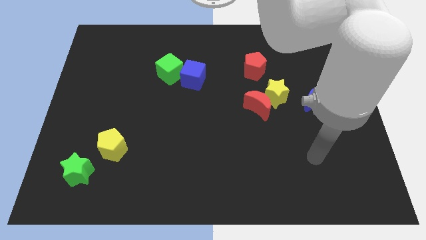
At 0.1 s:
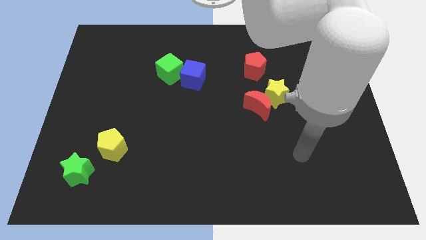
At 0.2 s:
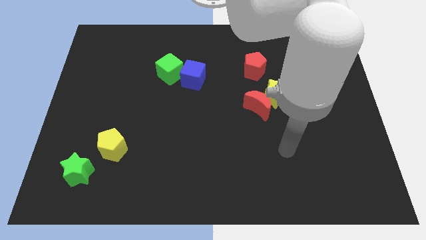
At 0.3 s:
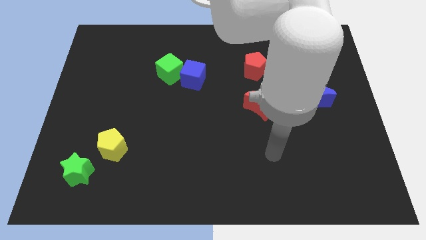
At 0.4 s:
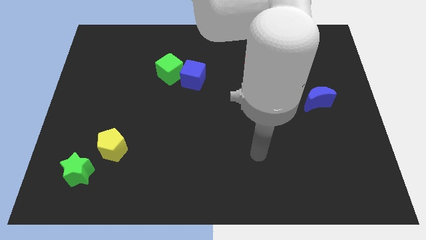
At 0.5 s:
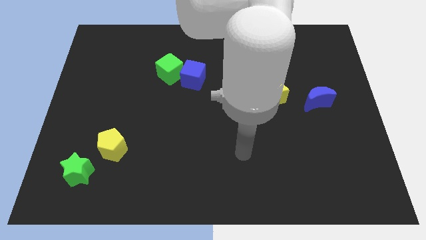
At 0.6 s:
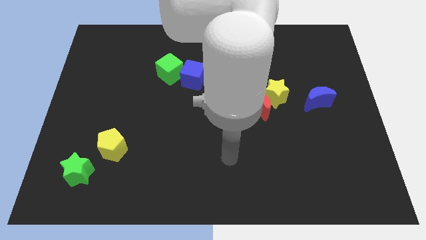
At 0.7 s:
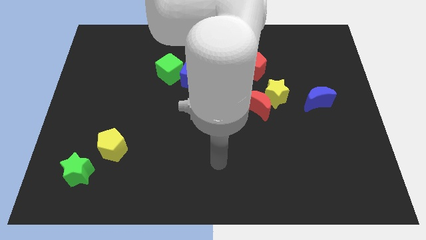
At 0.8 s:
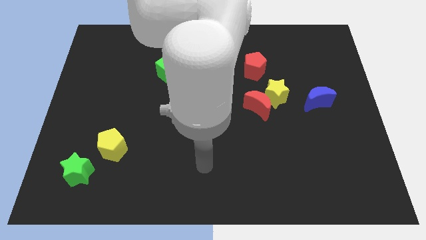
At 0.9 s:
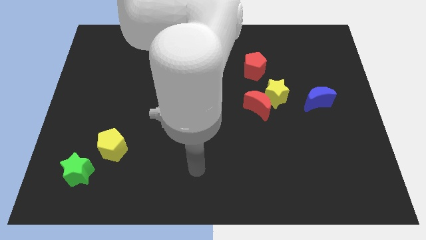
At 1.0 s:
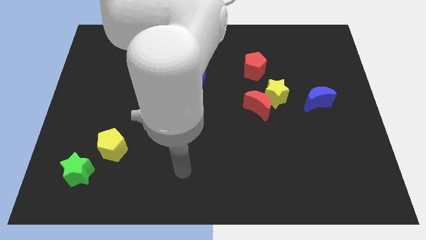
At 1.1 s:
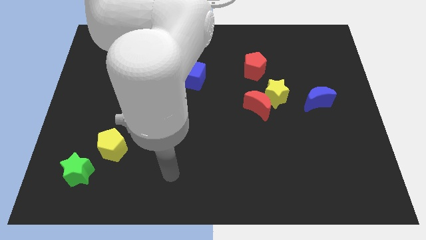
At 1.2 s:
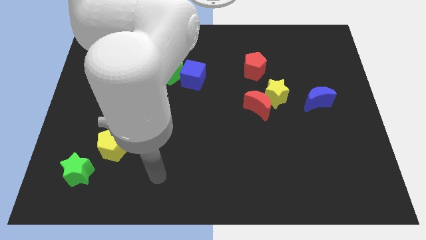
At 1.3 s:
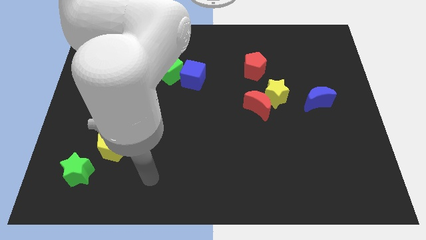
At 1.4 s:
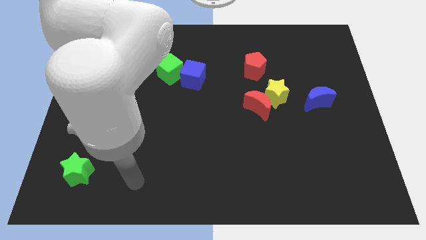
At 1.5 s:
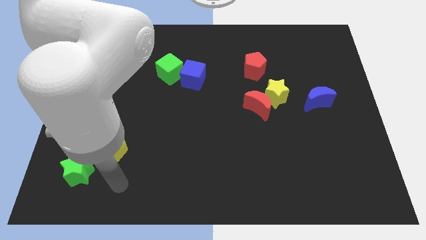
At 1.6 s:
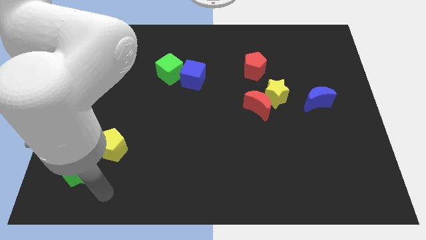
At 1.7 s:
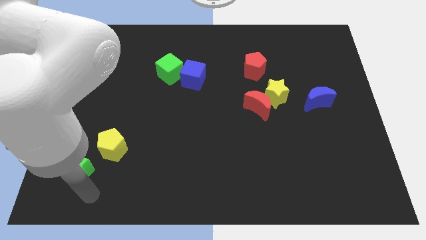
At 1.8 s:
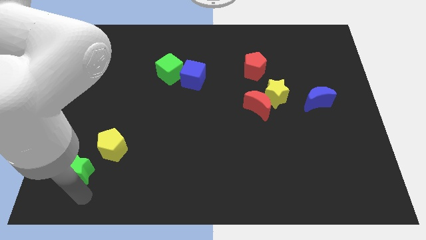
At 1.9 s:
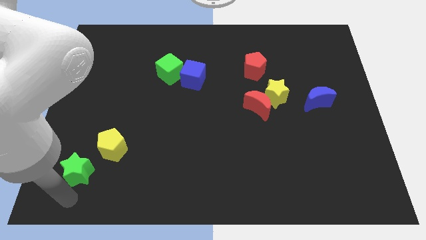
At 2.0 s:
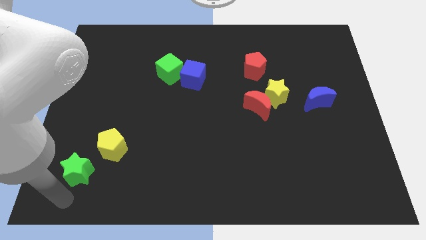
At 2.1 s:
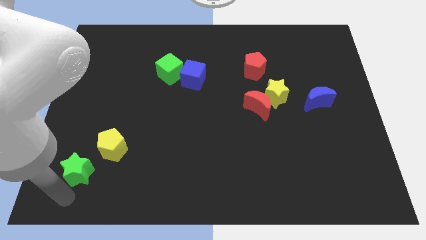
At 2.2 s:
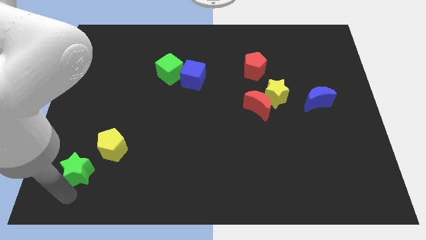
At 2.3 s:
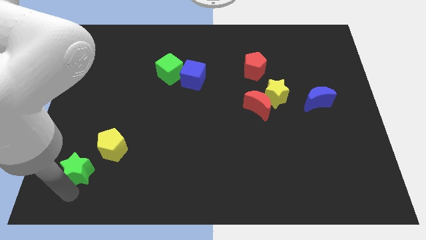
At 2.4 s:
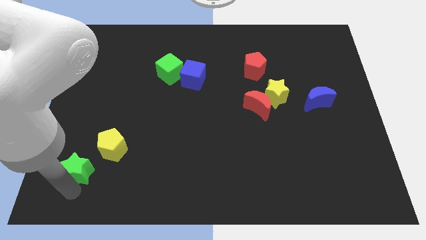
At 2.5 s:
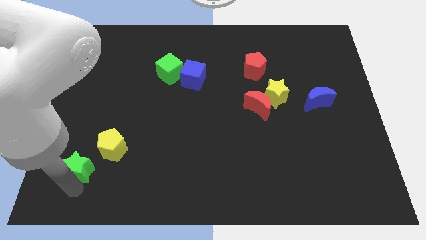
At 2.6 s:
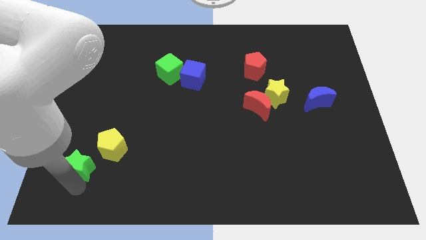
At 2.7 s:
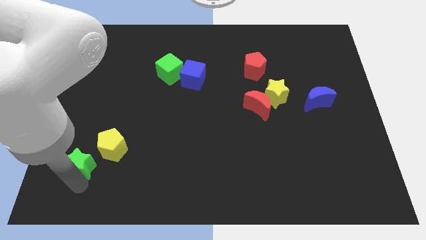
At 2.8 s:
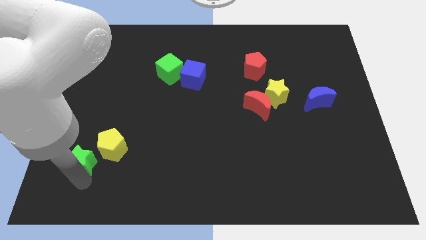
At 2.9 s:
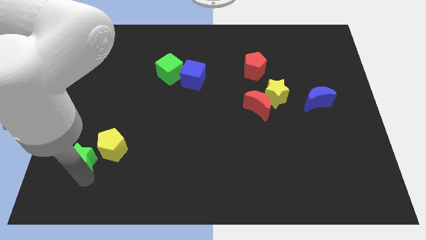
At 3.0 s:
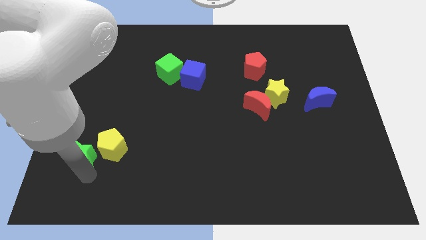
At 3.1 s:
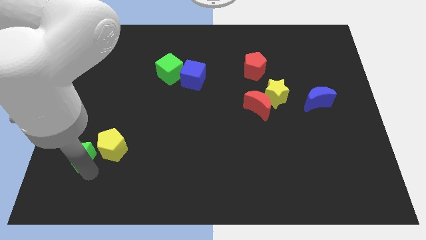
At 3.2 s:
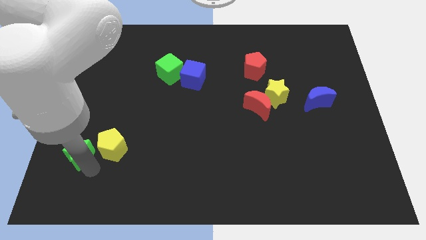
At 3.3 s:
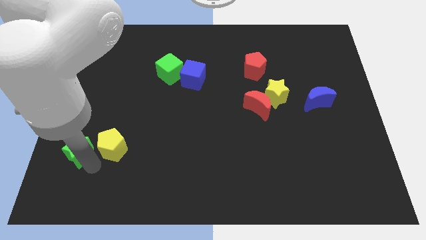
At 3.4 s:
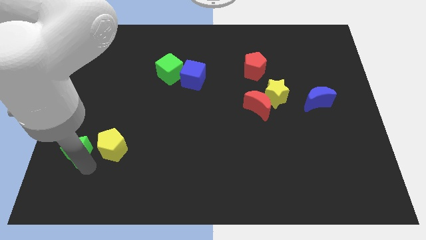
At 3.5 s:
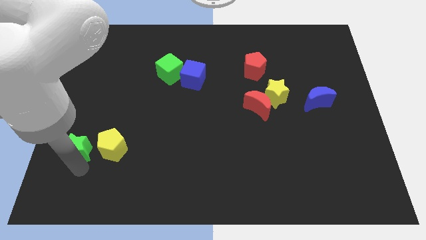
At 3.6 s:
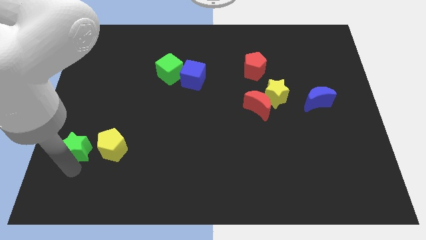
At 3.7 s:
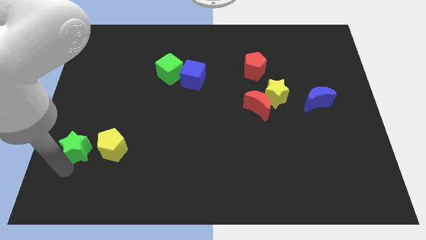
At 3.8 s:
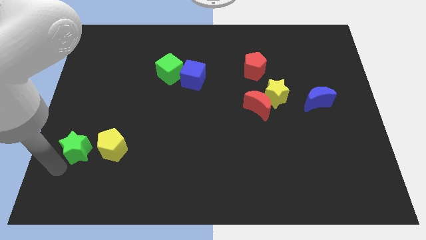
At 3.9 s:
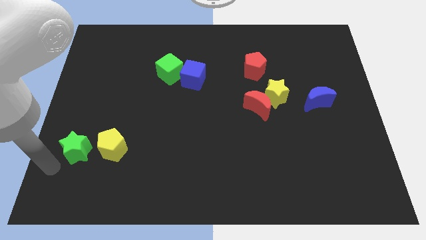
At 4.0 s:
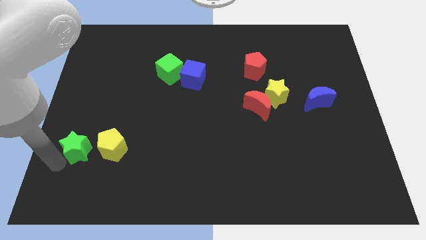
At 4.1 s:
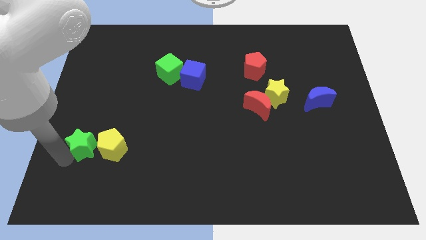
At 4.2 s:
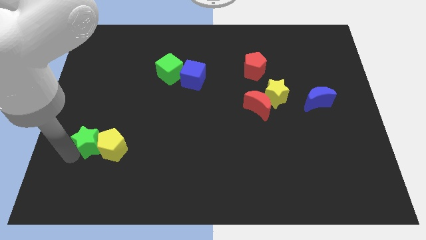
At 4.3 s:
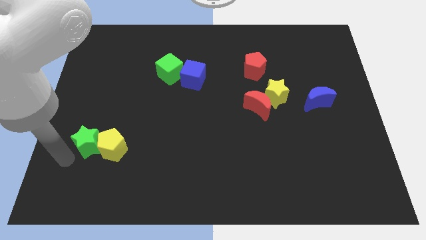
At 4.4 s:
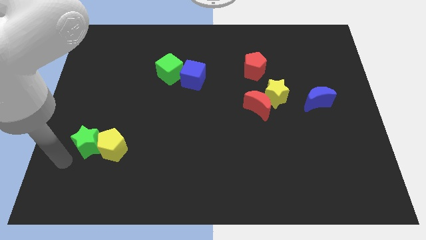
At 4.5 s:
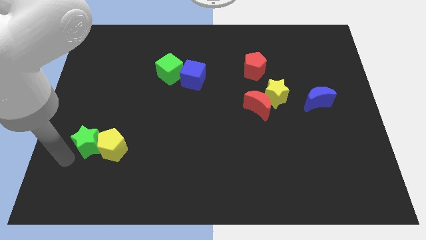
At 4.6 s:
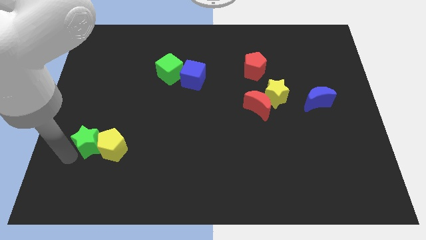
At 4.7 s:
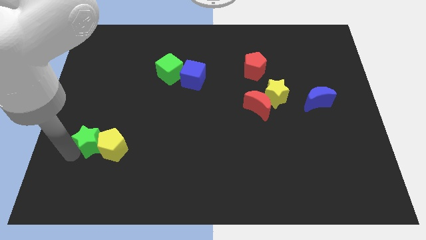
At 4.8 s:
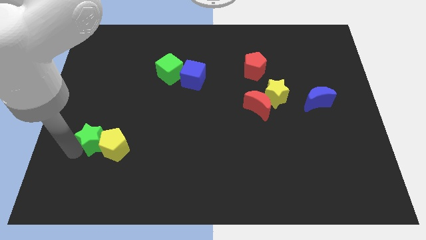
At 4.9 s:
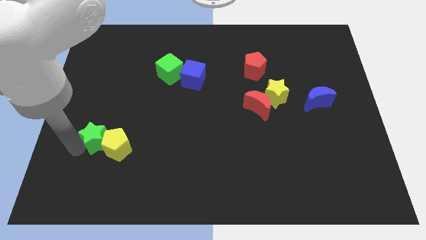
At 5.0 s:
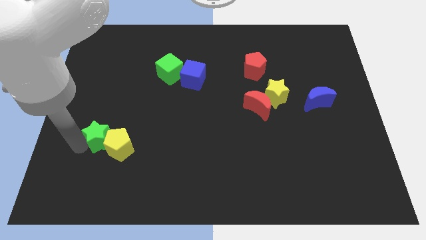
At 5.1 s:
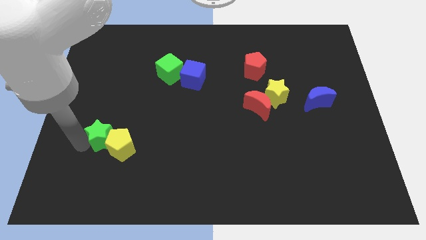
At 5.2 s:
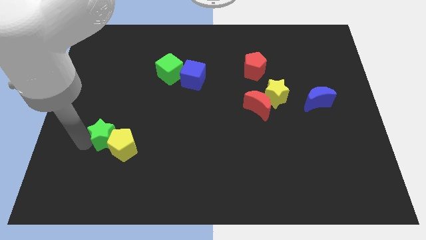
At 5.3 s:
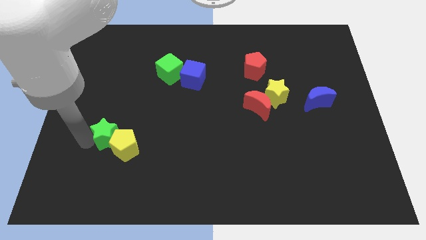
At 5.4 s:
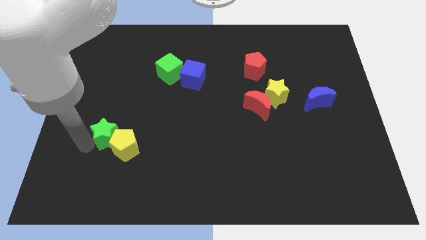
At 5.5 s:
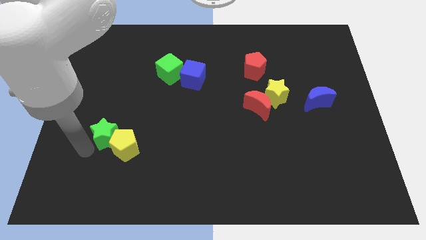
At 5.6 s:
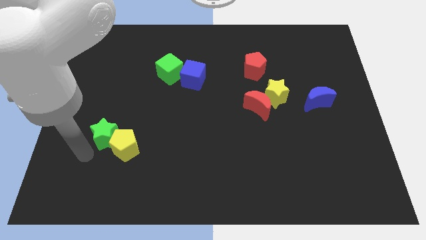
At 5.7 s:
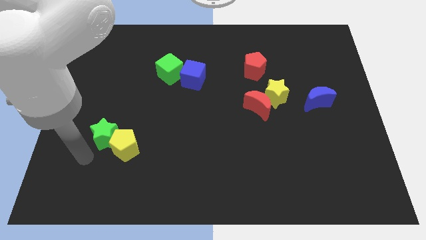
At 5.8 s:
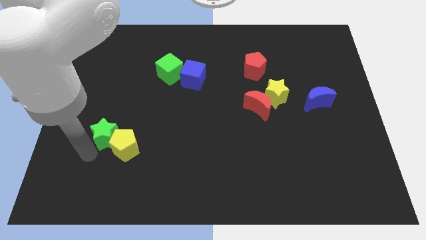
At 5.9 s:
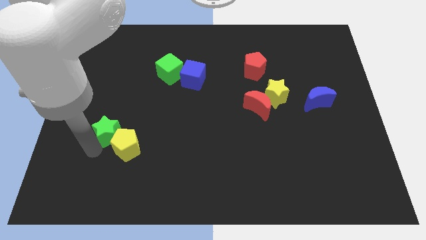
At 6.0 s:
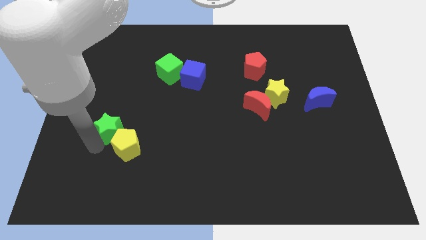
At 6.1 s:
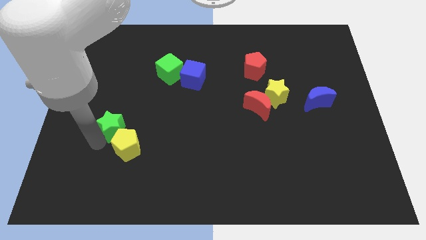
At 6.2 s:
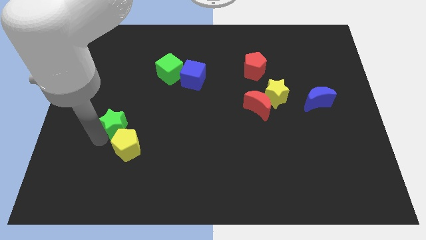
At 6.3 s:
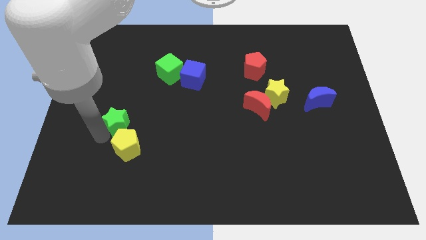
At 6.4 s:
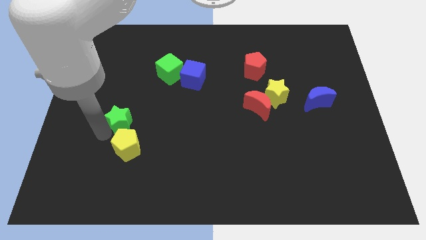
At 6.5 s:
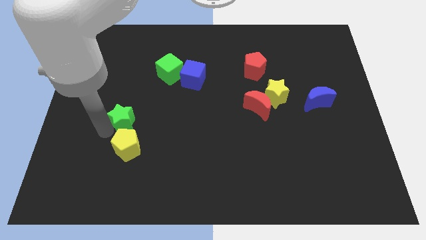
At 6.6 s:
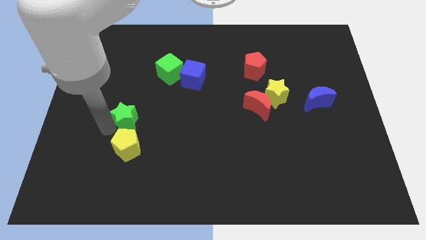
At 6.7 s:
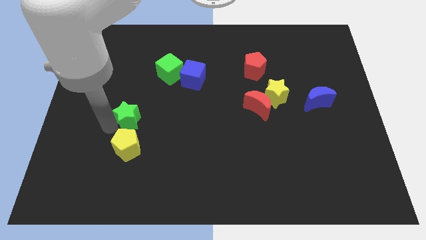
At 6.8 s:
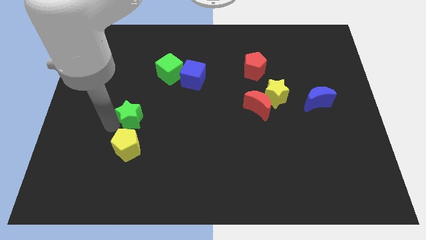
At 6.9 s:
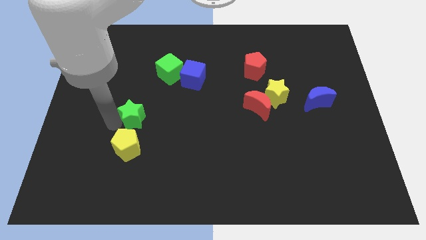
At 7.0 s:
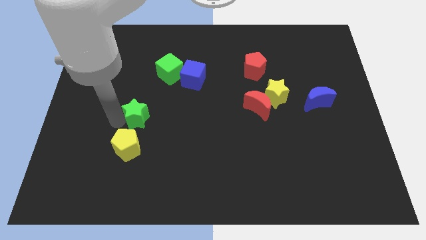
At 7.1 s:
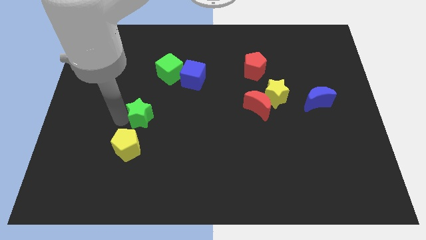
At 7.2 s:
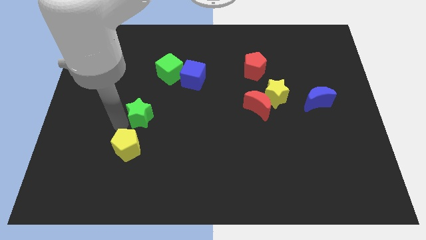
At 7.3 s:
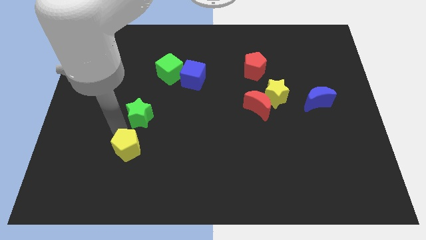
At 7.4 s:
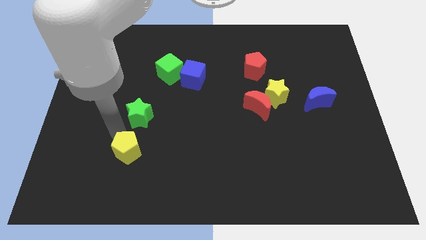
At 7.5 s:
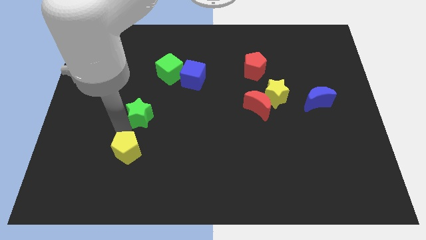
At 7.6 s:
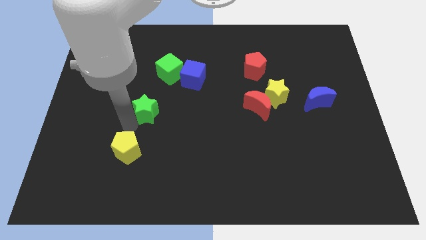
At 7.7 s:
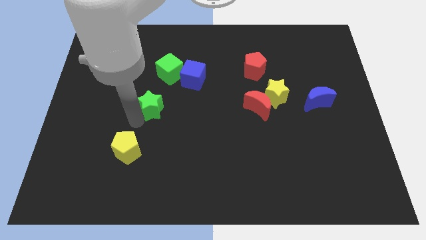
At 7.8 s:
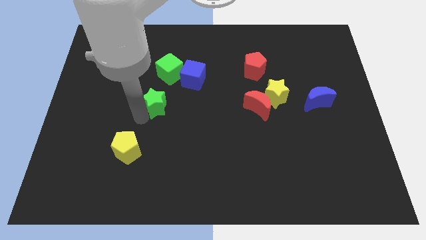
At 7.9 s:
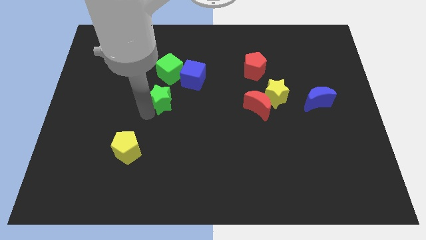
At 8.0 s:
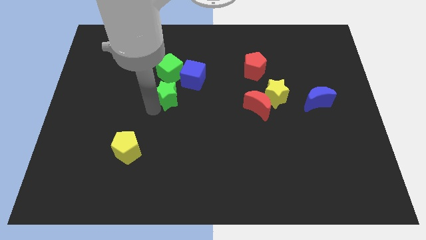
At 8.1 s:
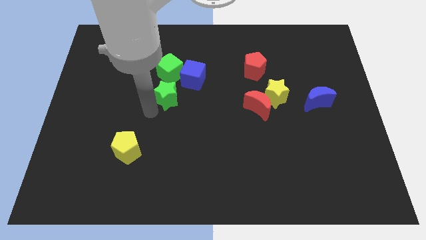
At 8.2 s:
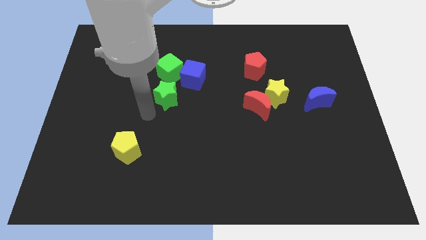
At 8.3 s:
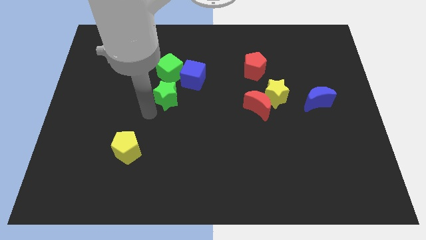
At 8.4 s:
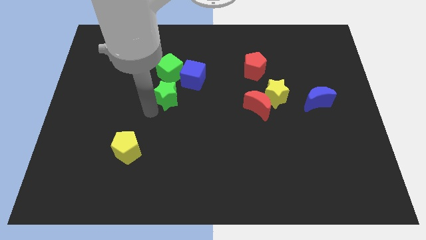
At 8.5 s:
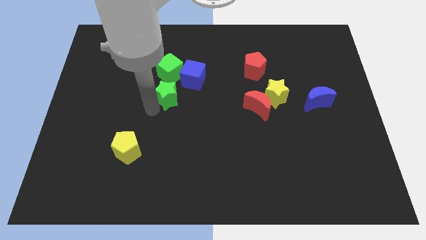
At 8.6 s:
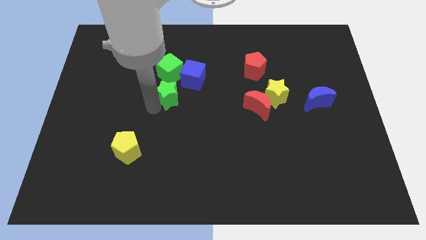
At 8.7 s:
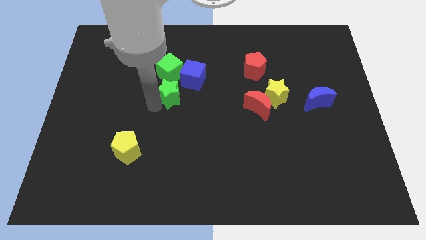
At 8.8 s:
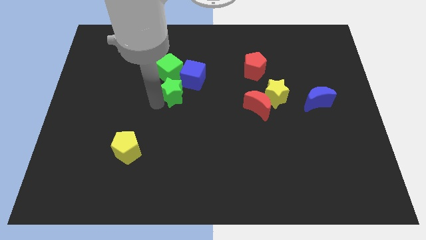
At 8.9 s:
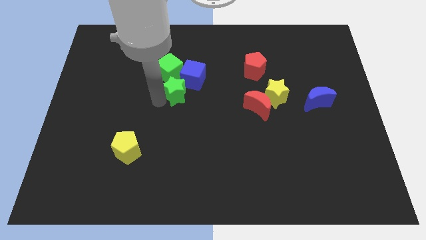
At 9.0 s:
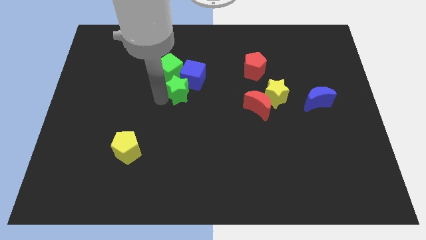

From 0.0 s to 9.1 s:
push the green star close to the blue cube
